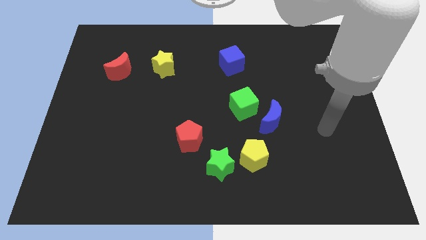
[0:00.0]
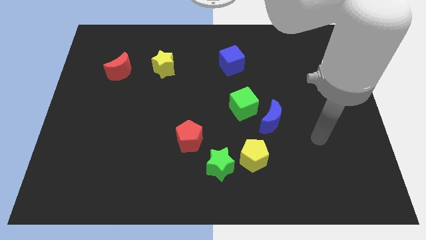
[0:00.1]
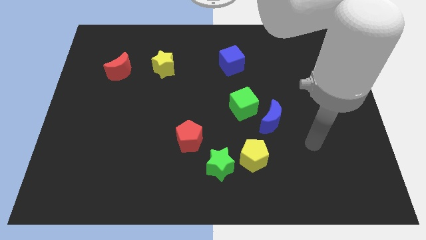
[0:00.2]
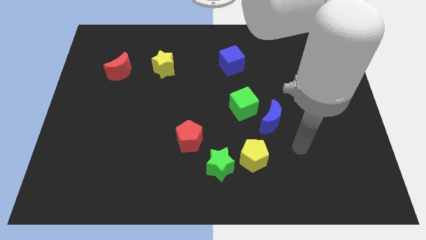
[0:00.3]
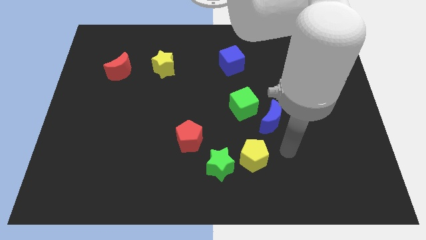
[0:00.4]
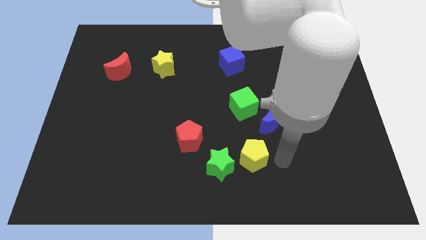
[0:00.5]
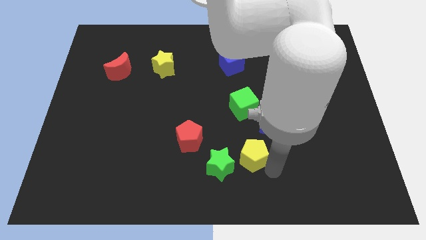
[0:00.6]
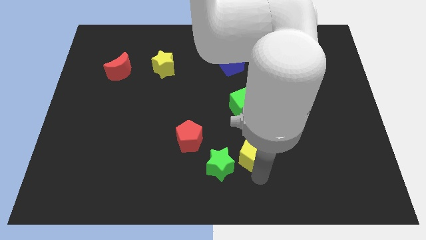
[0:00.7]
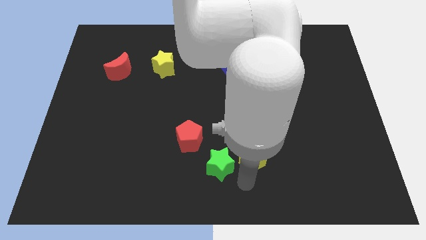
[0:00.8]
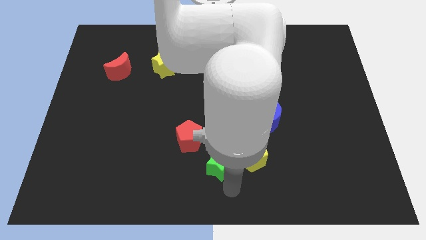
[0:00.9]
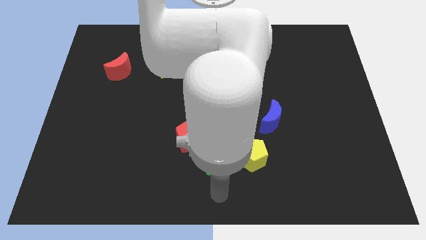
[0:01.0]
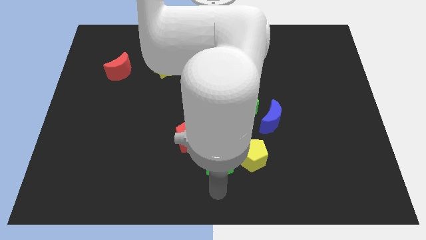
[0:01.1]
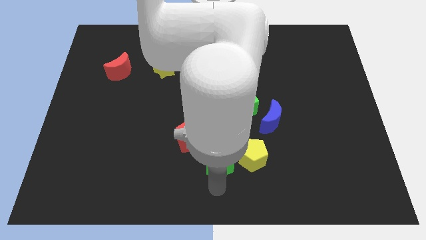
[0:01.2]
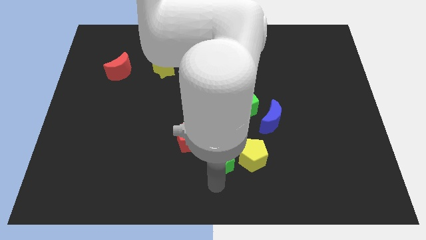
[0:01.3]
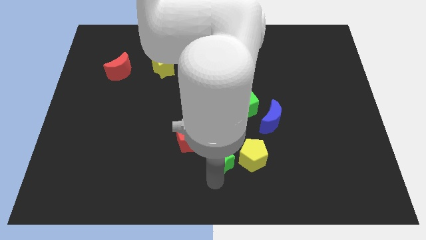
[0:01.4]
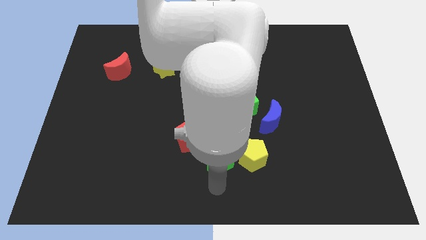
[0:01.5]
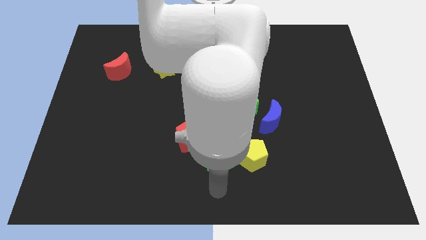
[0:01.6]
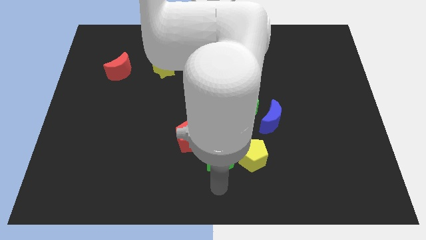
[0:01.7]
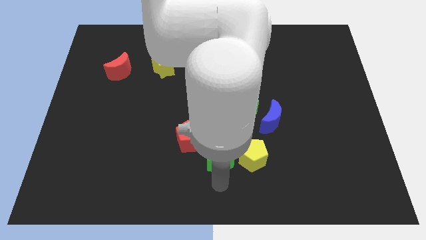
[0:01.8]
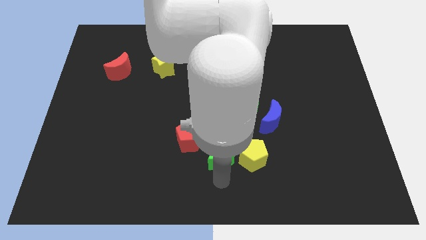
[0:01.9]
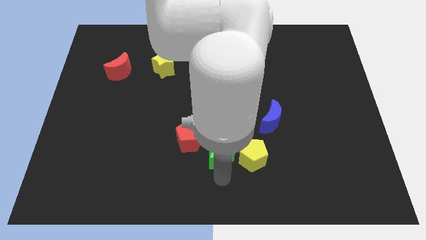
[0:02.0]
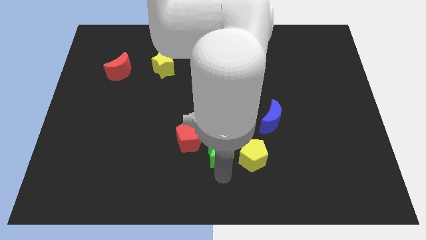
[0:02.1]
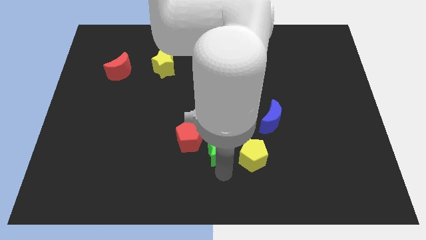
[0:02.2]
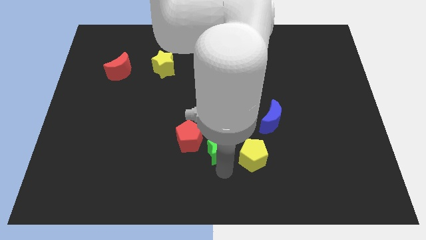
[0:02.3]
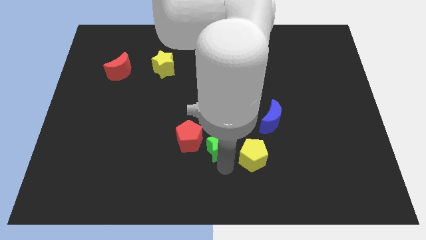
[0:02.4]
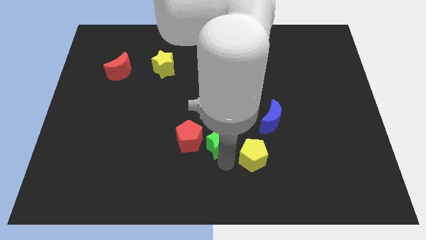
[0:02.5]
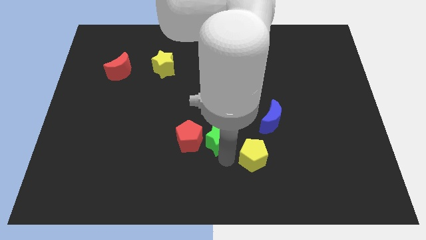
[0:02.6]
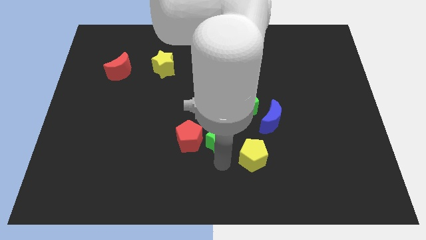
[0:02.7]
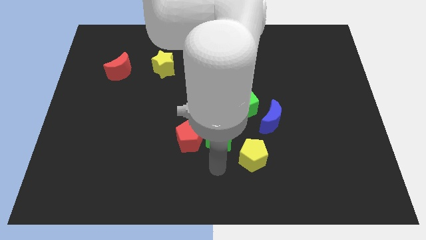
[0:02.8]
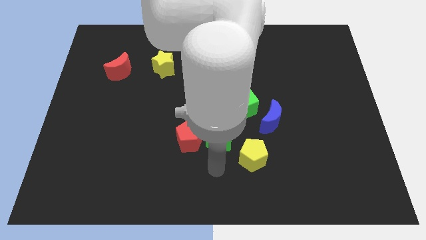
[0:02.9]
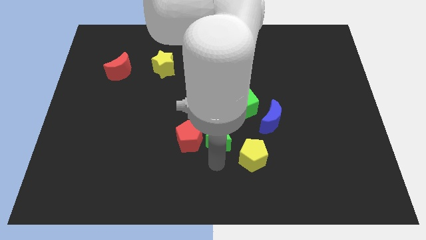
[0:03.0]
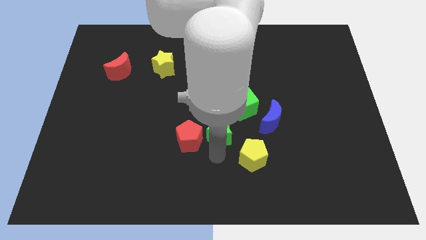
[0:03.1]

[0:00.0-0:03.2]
slightly push the green star upwards

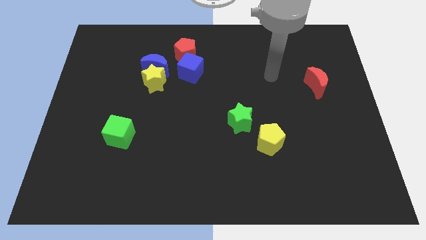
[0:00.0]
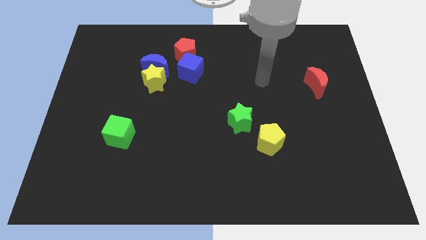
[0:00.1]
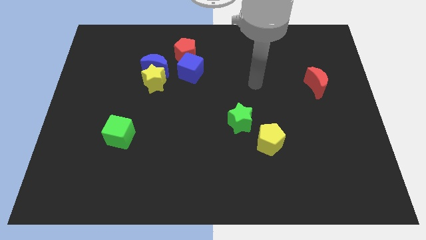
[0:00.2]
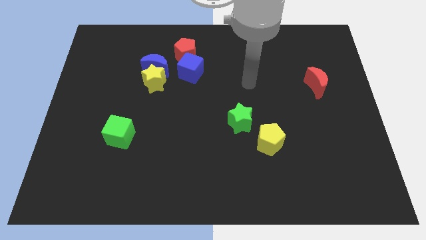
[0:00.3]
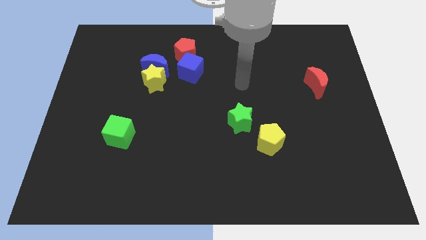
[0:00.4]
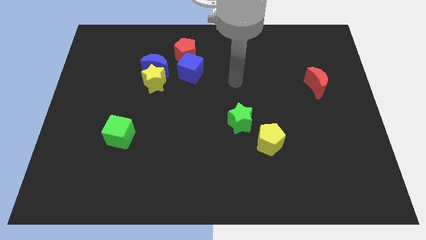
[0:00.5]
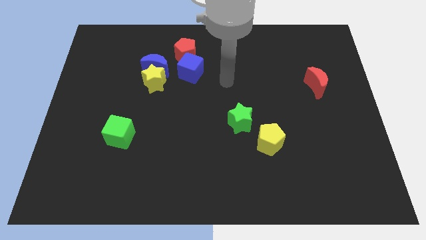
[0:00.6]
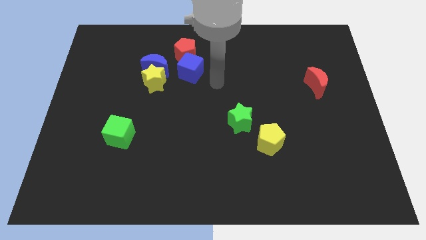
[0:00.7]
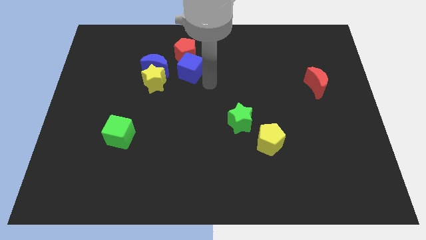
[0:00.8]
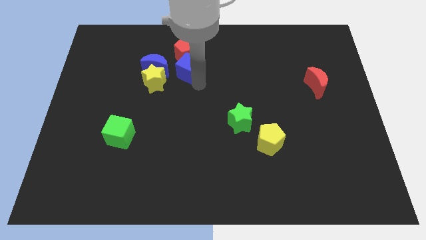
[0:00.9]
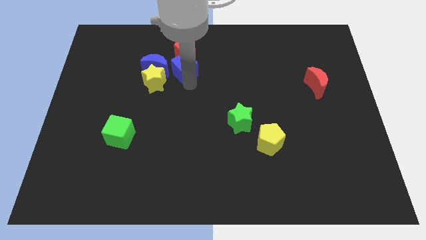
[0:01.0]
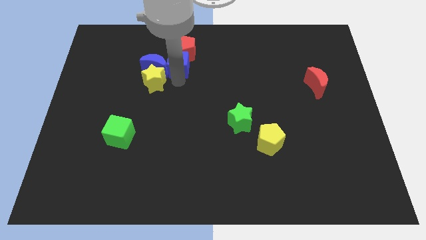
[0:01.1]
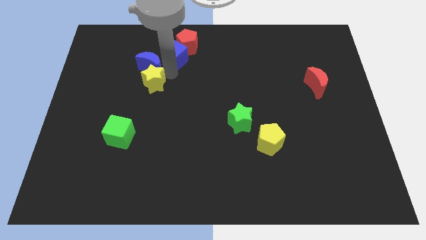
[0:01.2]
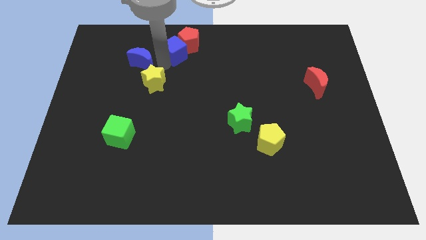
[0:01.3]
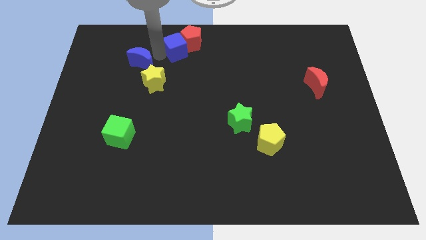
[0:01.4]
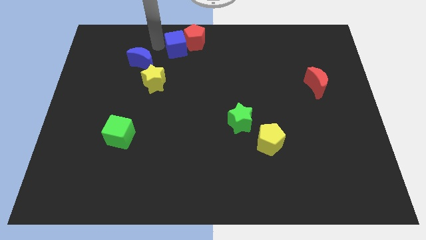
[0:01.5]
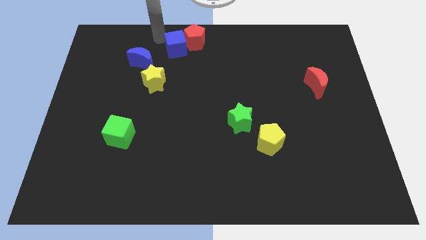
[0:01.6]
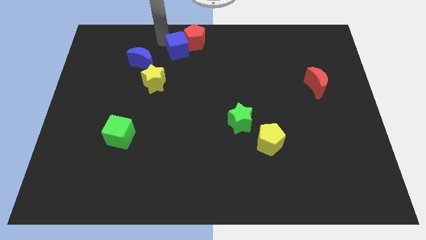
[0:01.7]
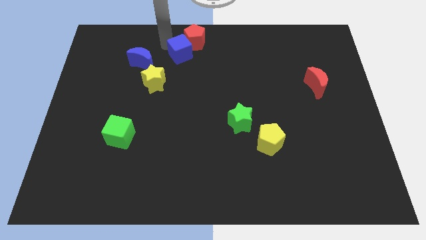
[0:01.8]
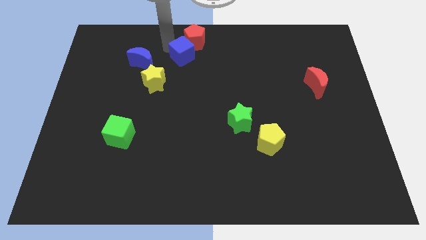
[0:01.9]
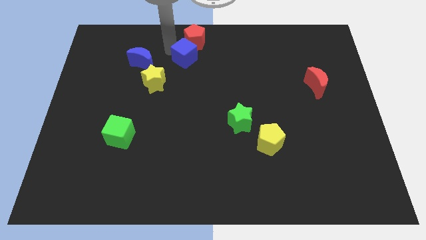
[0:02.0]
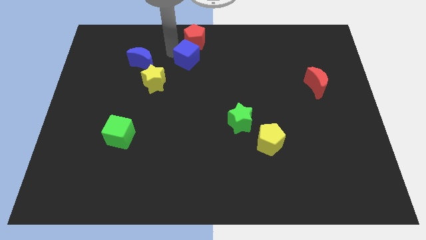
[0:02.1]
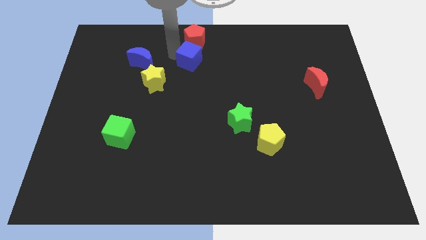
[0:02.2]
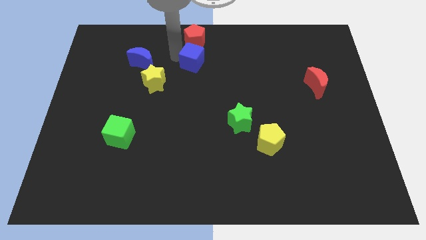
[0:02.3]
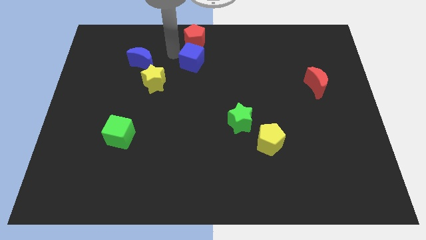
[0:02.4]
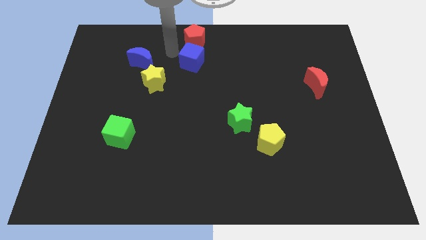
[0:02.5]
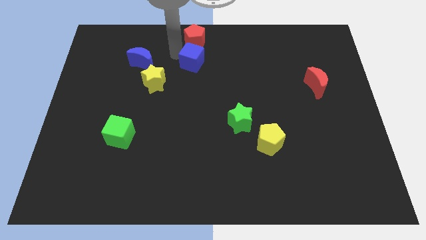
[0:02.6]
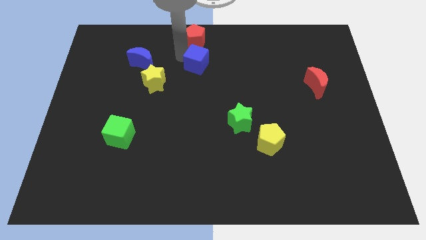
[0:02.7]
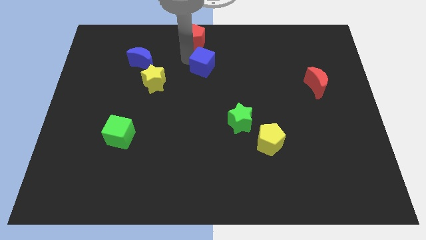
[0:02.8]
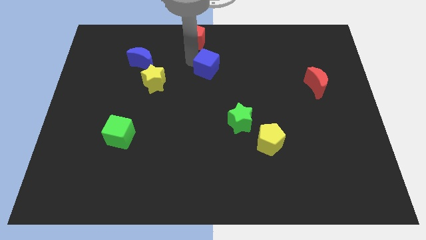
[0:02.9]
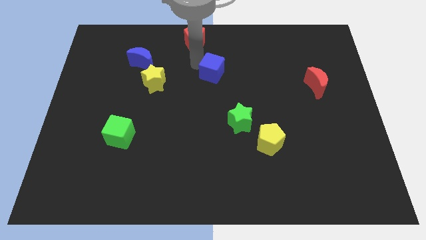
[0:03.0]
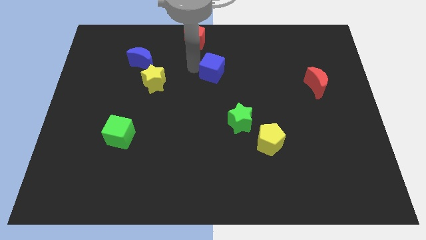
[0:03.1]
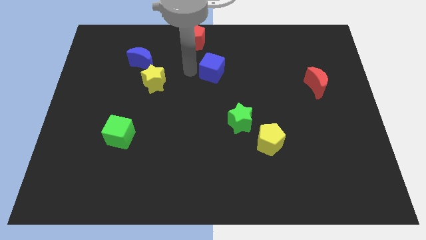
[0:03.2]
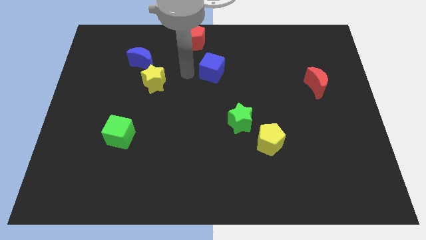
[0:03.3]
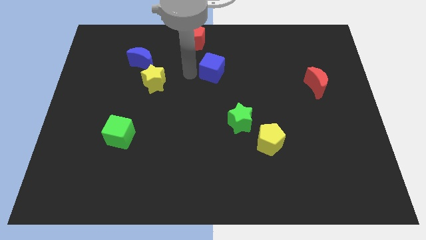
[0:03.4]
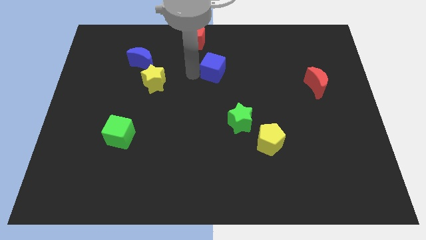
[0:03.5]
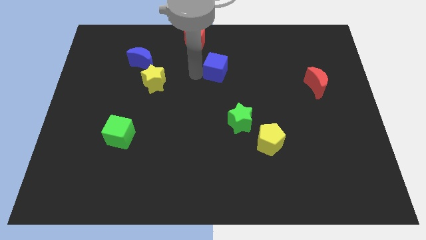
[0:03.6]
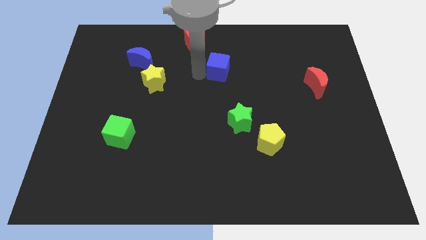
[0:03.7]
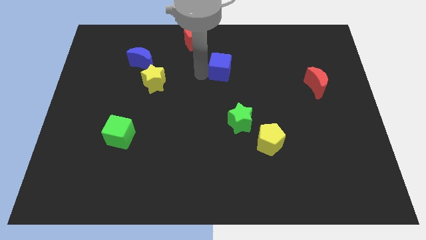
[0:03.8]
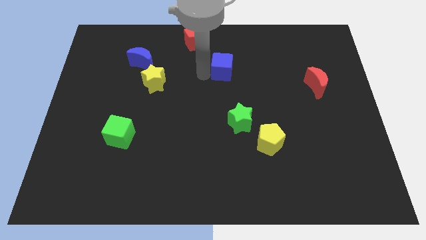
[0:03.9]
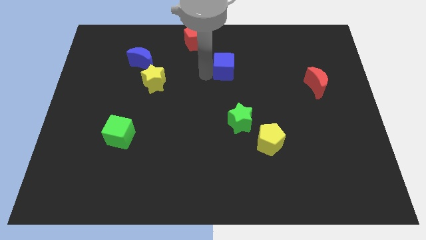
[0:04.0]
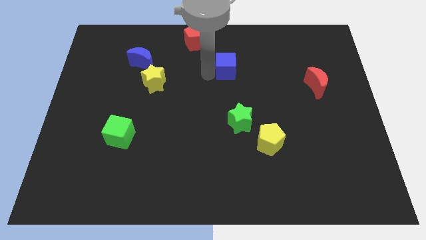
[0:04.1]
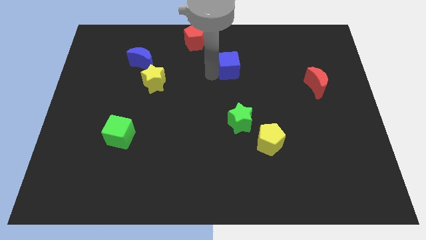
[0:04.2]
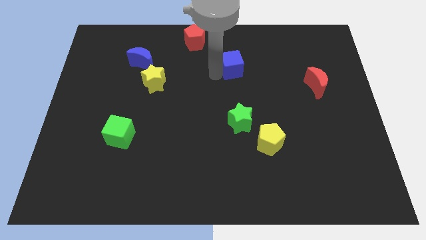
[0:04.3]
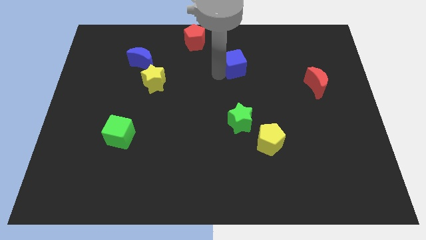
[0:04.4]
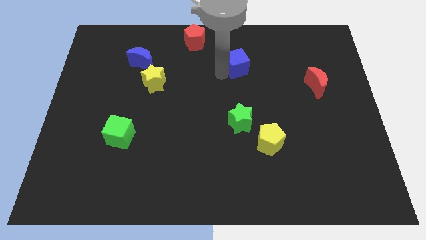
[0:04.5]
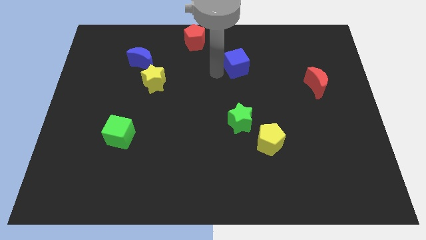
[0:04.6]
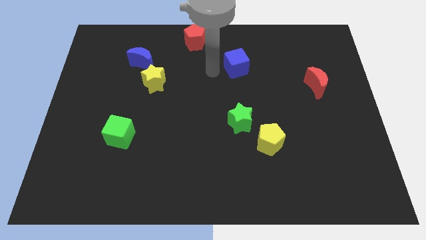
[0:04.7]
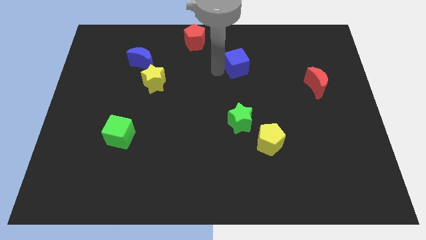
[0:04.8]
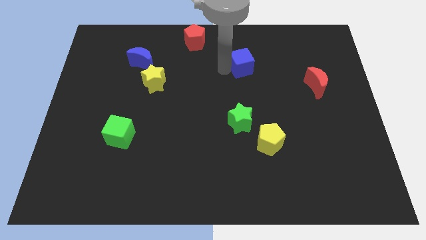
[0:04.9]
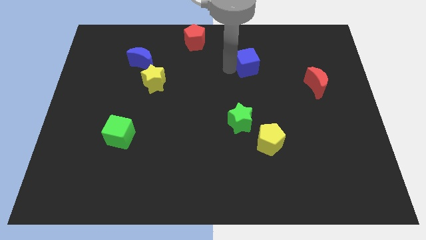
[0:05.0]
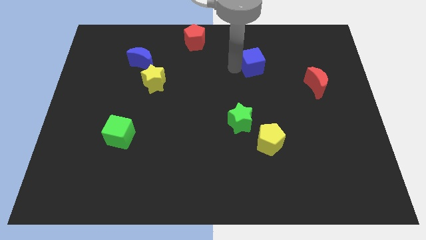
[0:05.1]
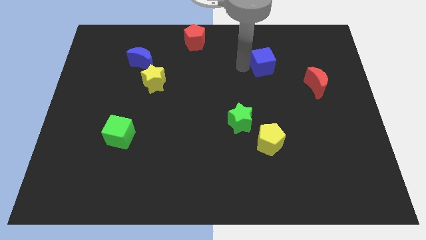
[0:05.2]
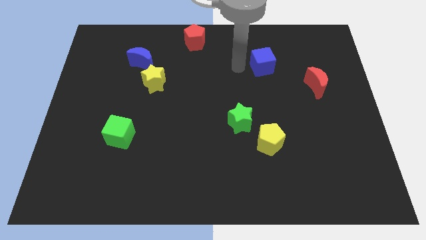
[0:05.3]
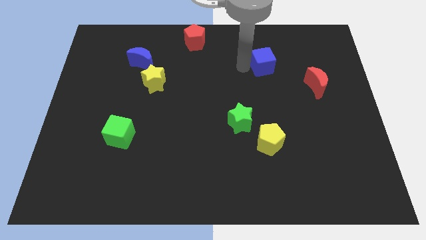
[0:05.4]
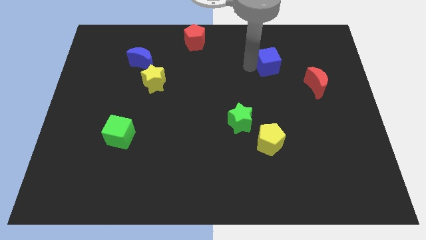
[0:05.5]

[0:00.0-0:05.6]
move the blue cube right
